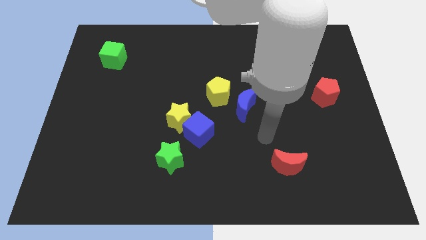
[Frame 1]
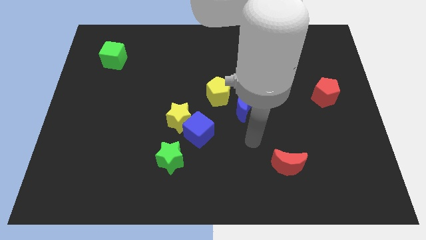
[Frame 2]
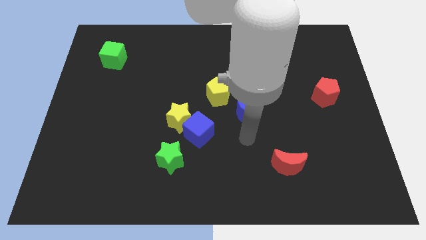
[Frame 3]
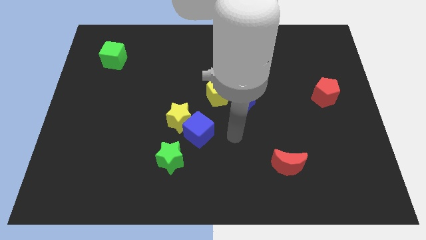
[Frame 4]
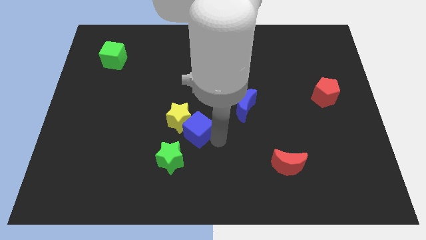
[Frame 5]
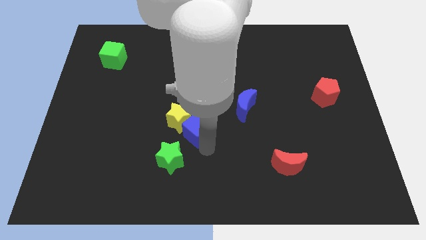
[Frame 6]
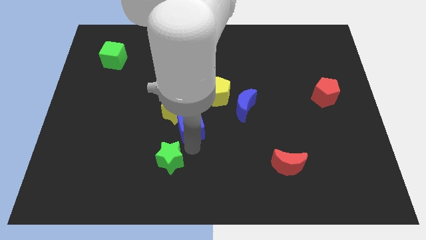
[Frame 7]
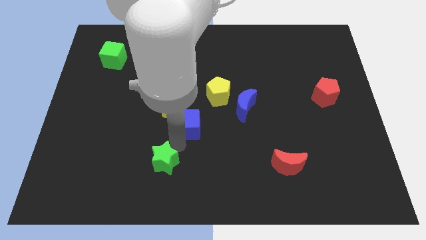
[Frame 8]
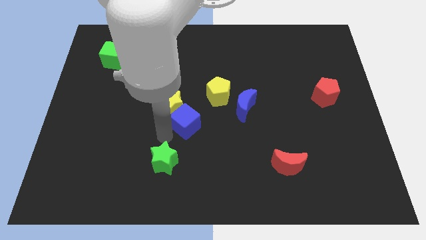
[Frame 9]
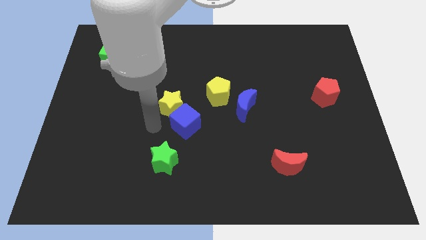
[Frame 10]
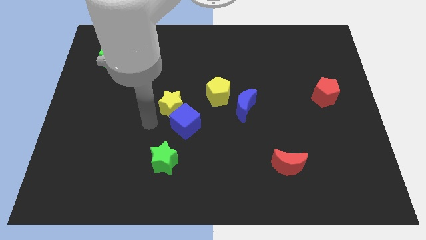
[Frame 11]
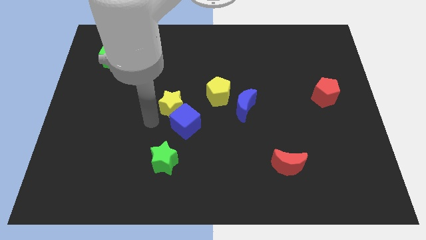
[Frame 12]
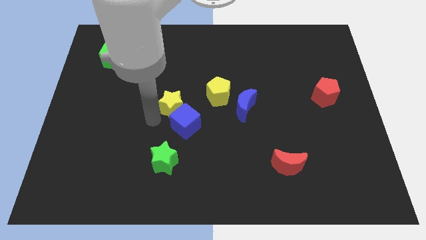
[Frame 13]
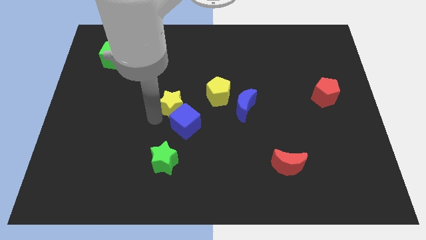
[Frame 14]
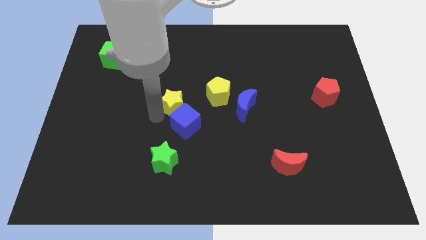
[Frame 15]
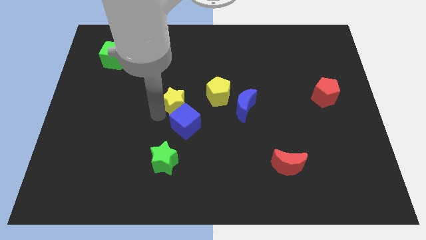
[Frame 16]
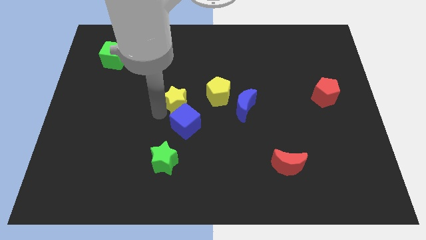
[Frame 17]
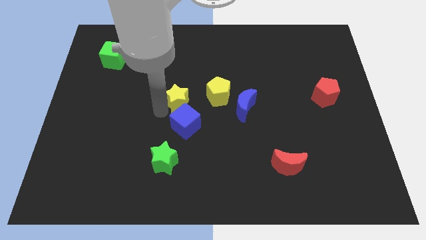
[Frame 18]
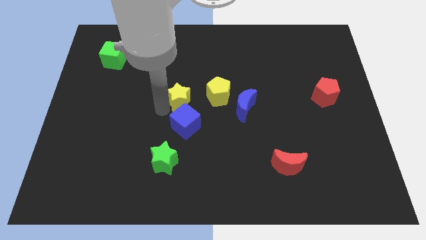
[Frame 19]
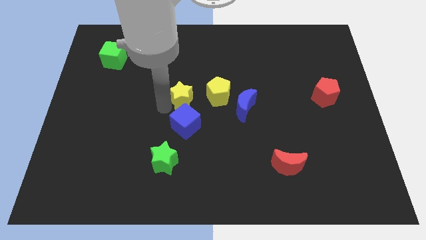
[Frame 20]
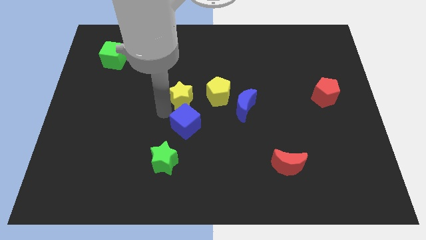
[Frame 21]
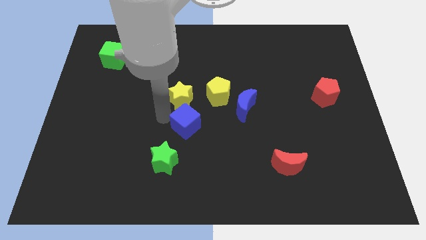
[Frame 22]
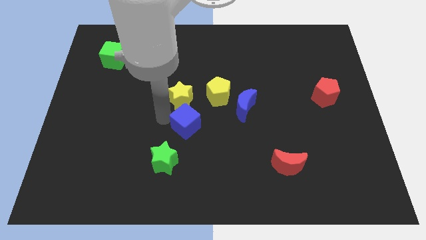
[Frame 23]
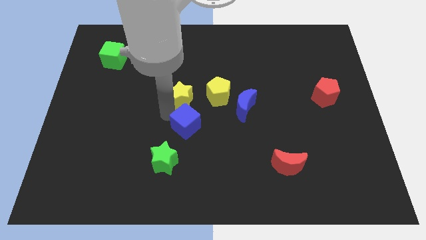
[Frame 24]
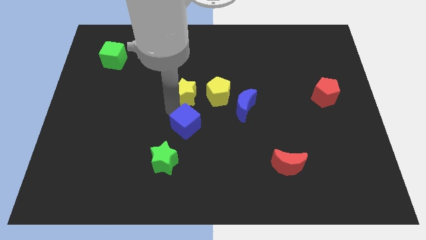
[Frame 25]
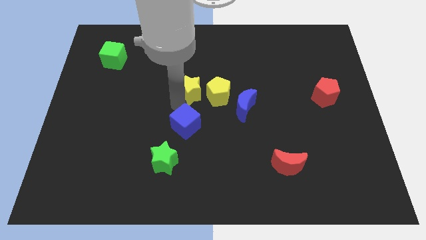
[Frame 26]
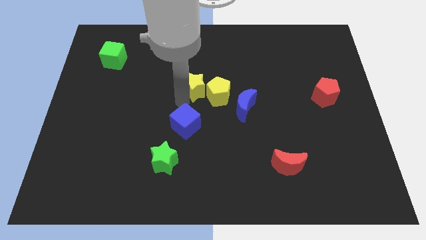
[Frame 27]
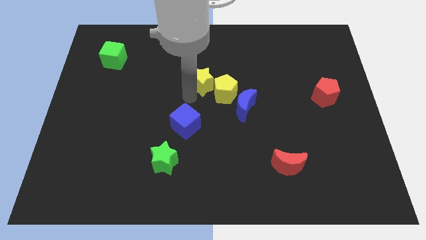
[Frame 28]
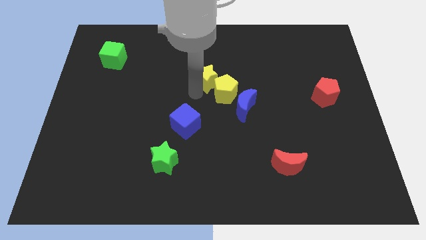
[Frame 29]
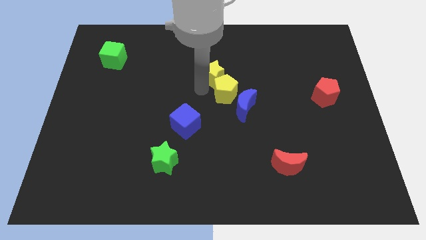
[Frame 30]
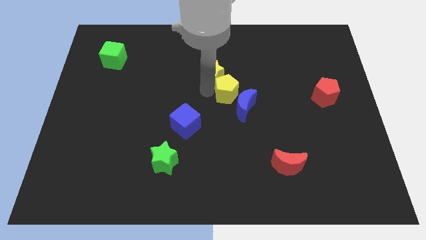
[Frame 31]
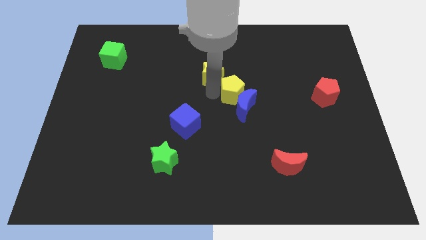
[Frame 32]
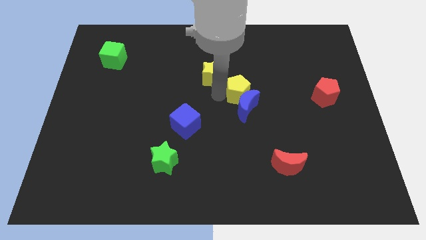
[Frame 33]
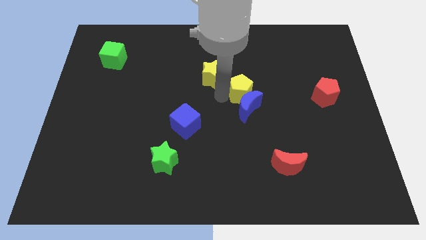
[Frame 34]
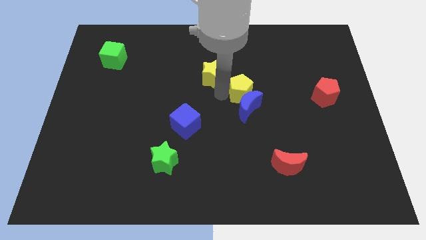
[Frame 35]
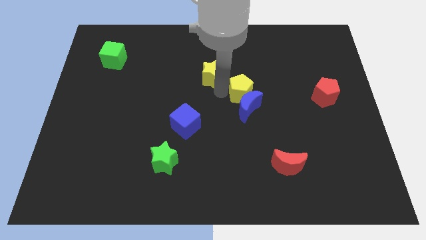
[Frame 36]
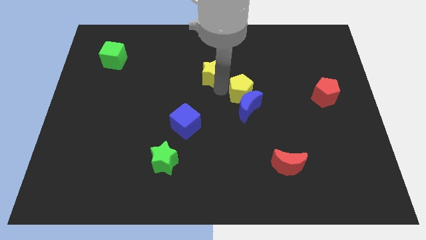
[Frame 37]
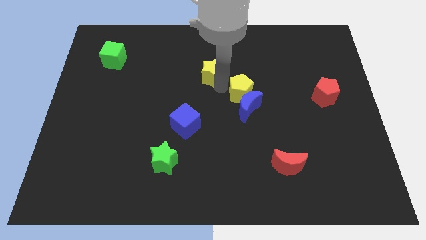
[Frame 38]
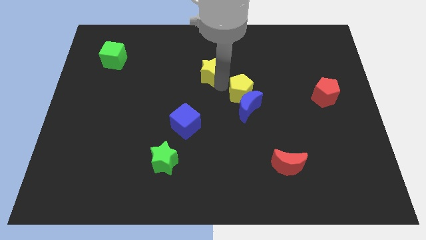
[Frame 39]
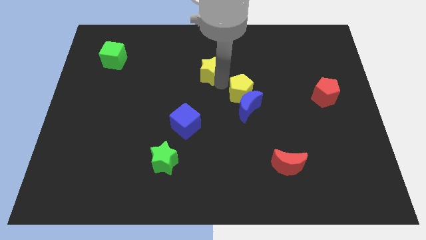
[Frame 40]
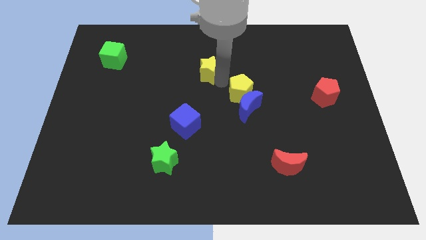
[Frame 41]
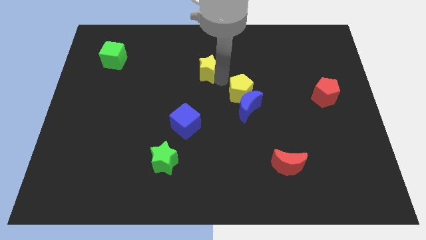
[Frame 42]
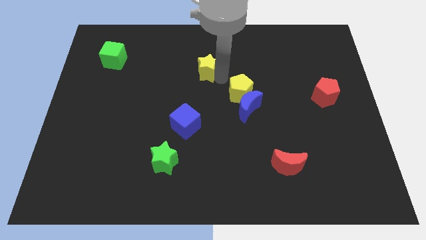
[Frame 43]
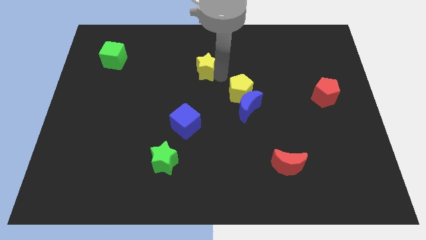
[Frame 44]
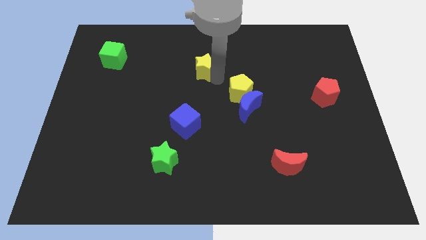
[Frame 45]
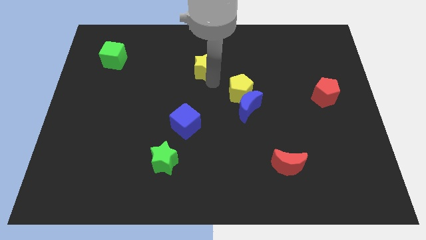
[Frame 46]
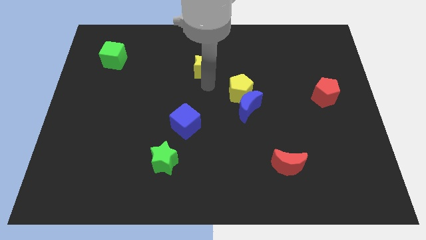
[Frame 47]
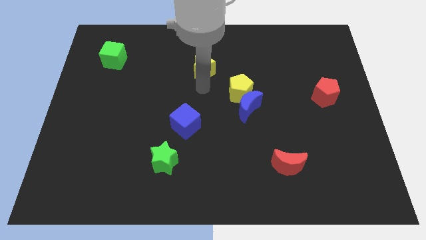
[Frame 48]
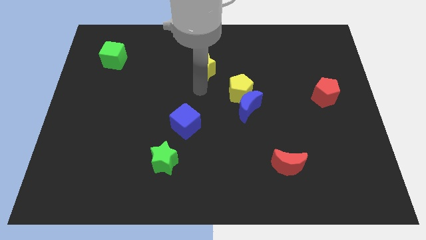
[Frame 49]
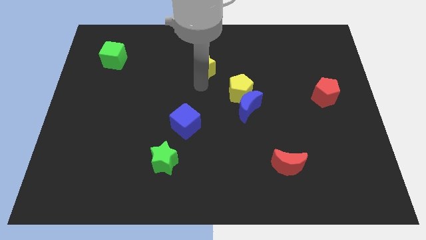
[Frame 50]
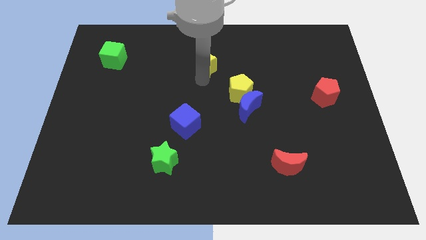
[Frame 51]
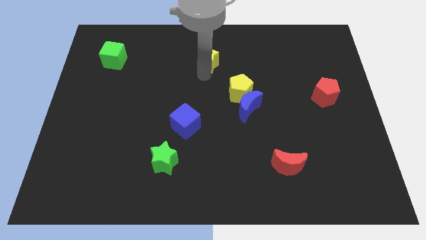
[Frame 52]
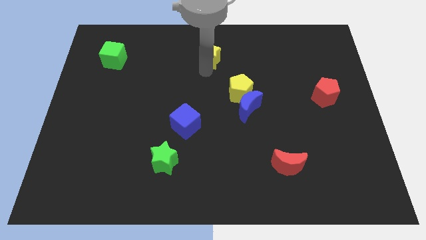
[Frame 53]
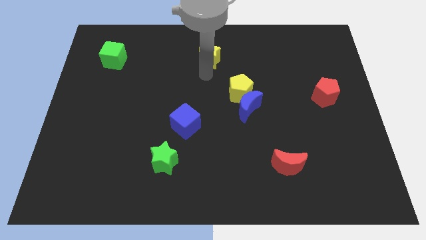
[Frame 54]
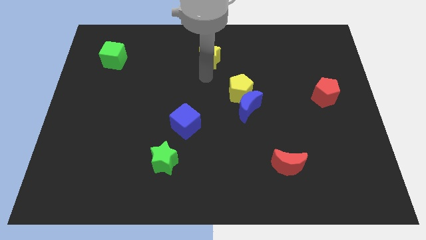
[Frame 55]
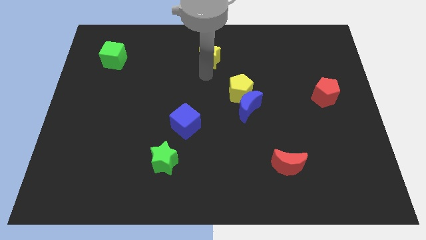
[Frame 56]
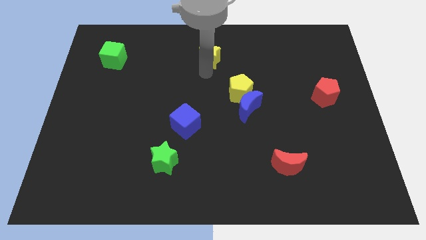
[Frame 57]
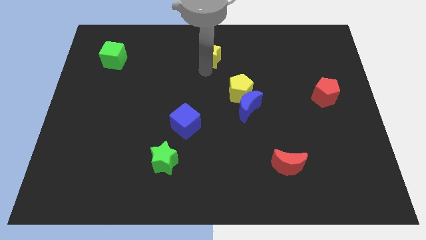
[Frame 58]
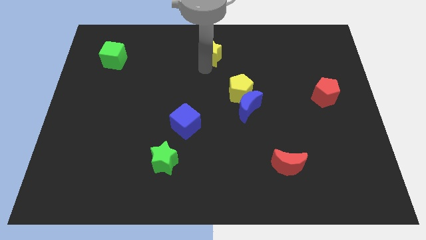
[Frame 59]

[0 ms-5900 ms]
slide the yellow star to the top

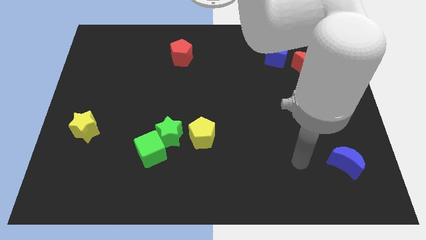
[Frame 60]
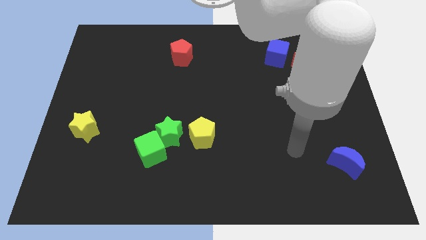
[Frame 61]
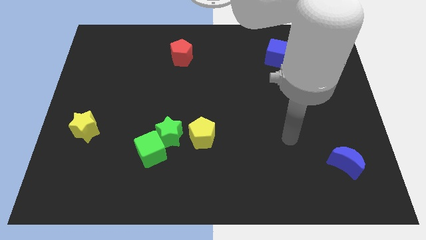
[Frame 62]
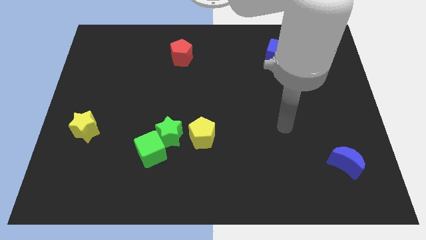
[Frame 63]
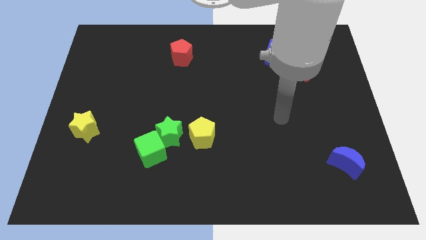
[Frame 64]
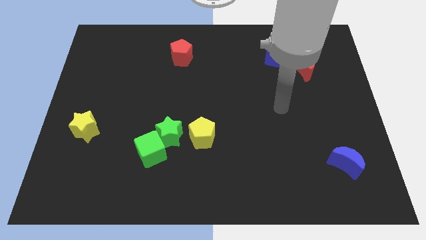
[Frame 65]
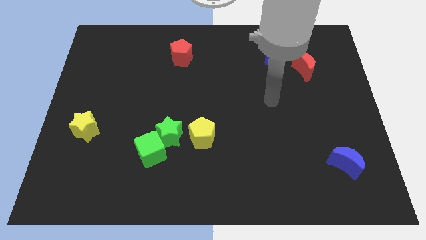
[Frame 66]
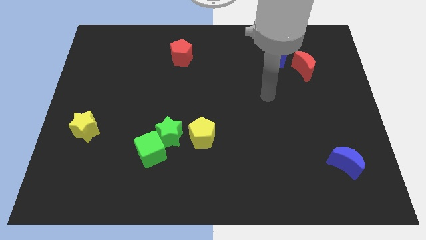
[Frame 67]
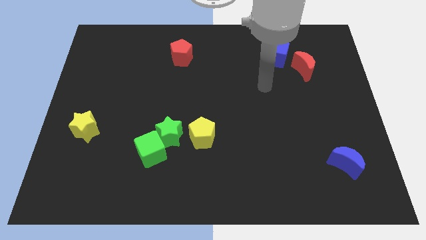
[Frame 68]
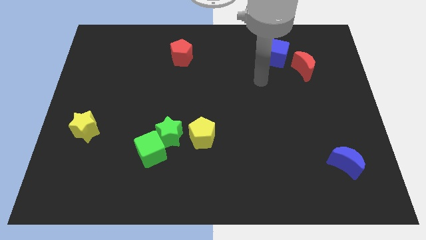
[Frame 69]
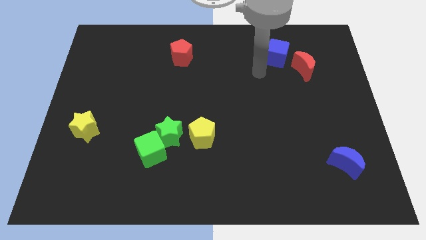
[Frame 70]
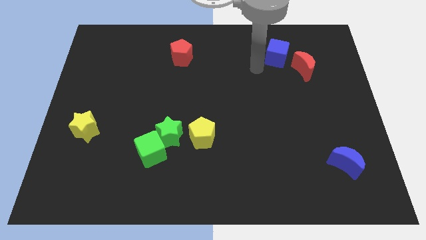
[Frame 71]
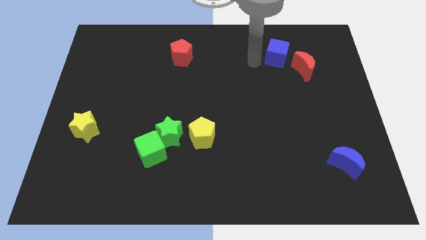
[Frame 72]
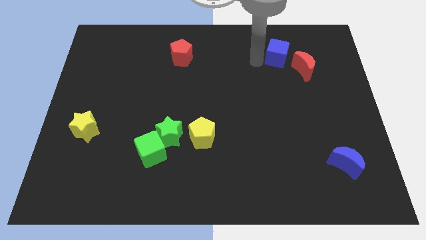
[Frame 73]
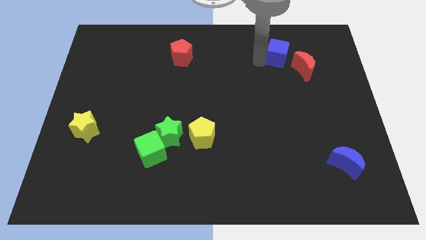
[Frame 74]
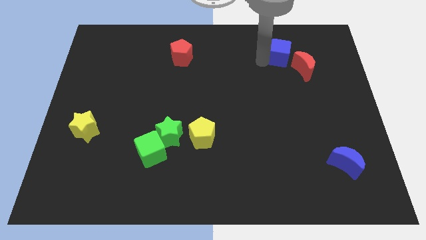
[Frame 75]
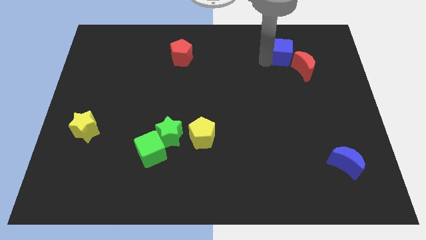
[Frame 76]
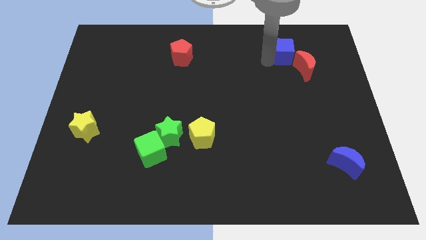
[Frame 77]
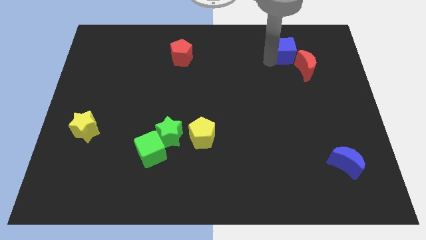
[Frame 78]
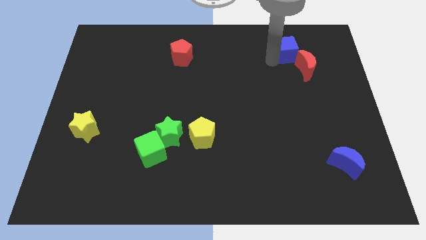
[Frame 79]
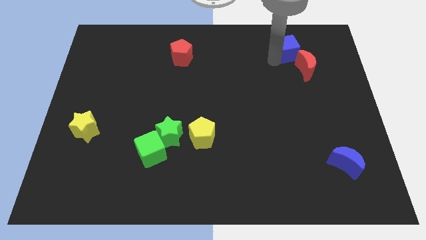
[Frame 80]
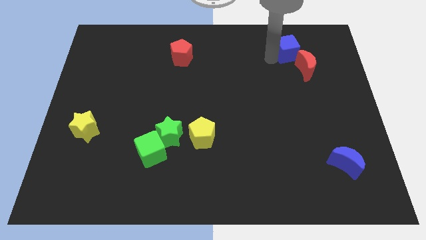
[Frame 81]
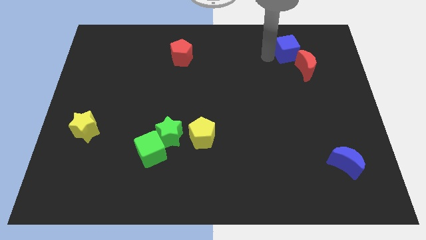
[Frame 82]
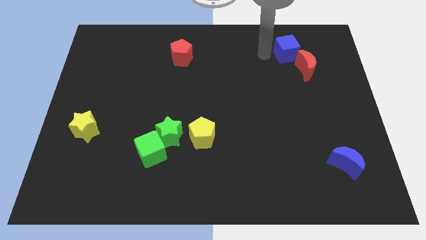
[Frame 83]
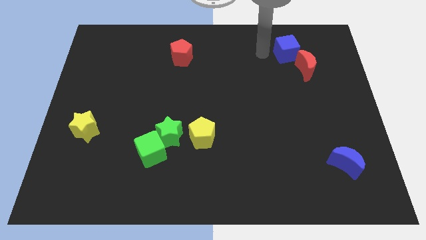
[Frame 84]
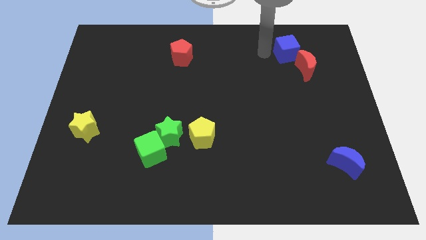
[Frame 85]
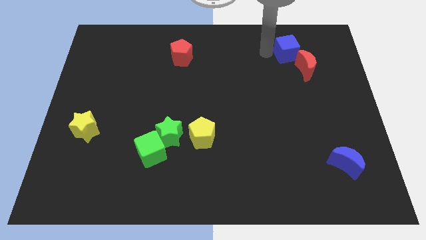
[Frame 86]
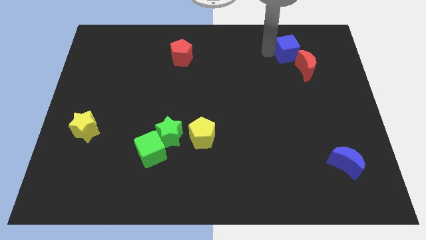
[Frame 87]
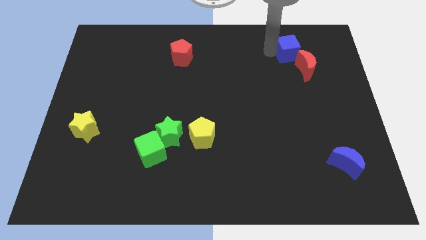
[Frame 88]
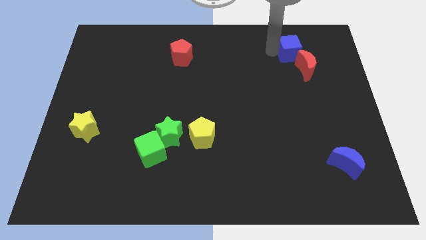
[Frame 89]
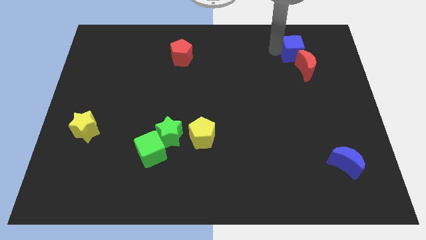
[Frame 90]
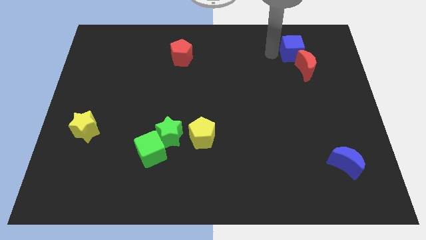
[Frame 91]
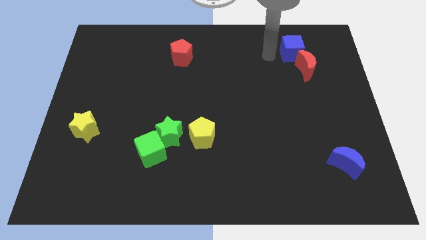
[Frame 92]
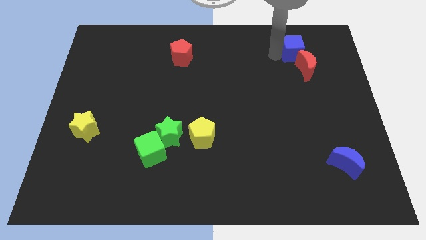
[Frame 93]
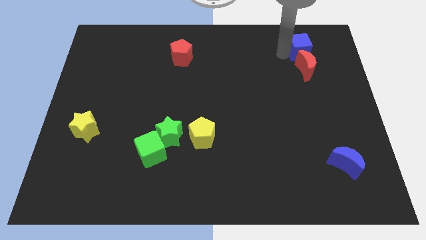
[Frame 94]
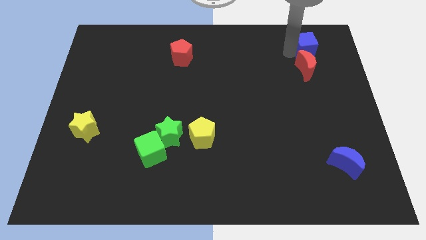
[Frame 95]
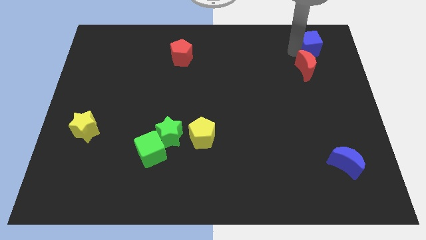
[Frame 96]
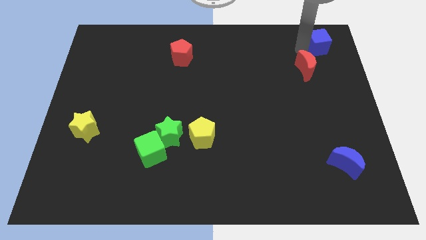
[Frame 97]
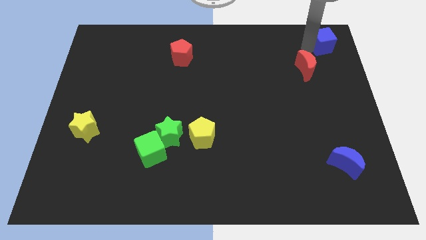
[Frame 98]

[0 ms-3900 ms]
slide the blue cube to the top right
